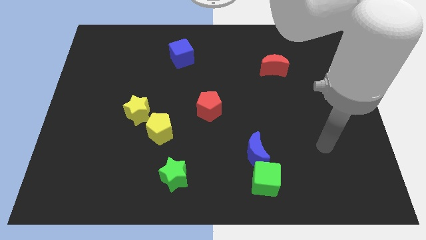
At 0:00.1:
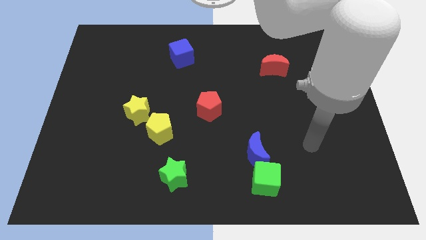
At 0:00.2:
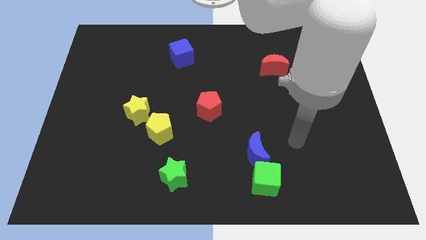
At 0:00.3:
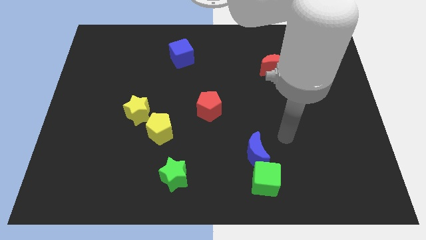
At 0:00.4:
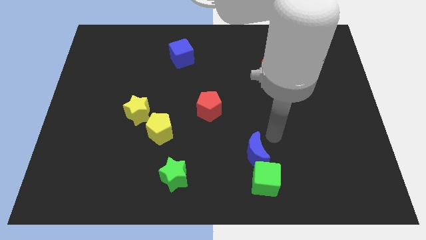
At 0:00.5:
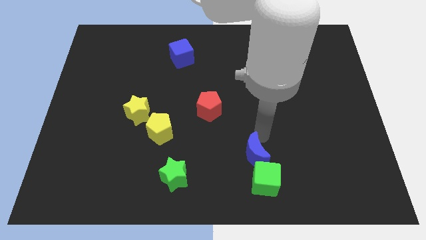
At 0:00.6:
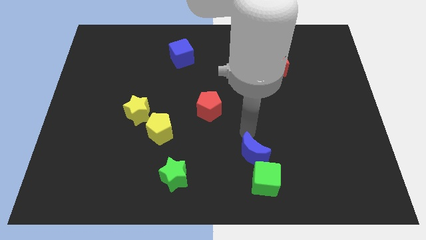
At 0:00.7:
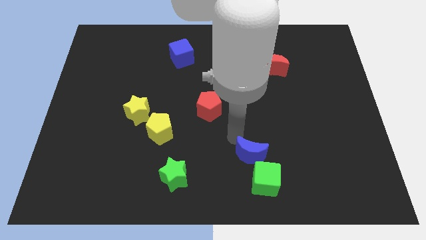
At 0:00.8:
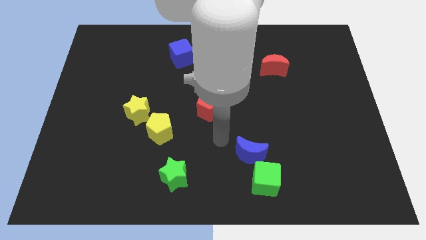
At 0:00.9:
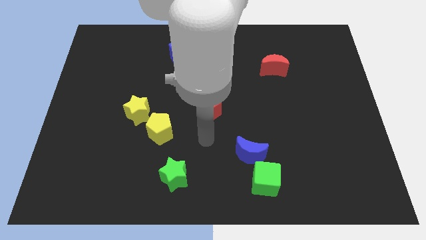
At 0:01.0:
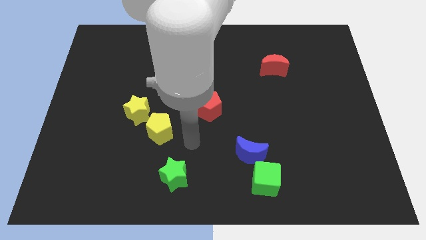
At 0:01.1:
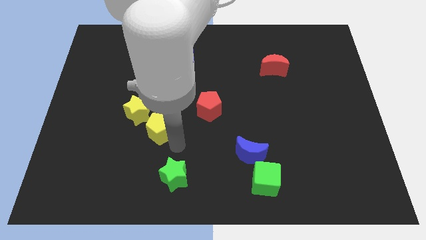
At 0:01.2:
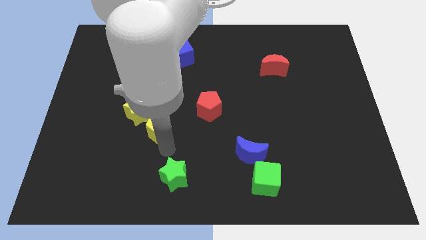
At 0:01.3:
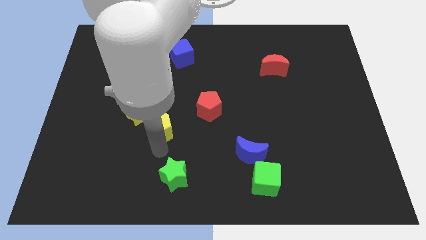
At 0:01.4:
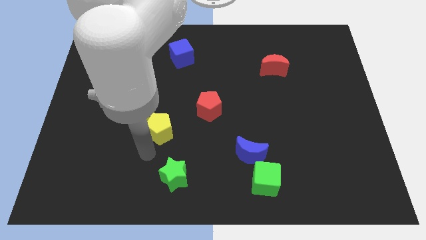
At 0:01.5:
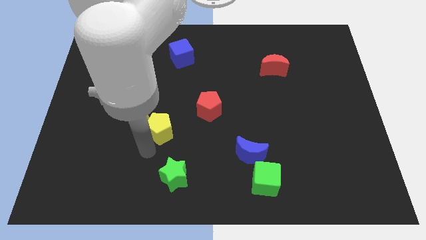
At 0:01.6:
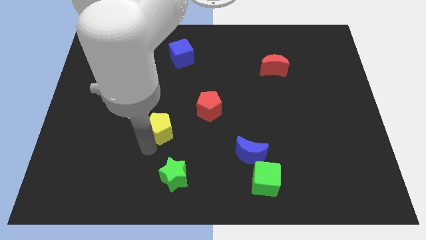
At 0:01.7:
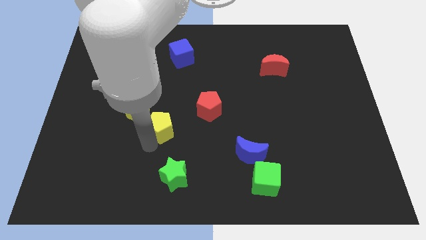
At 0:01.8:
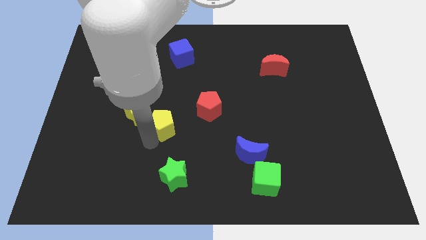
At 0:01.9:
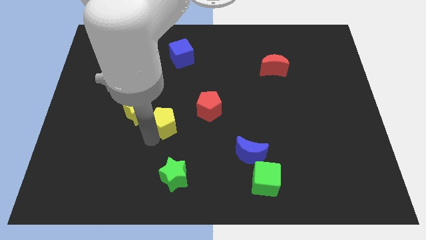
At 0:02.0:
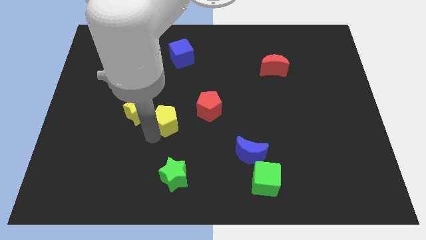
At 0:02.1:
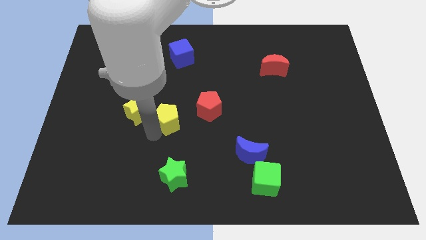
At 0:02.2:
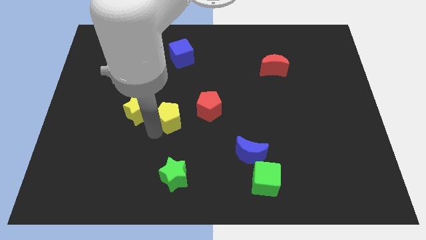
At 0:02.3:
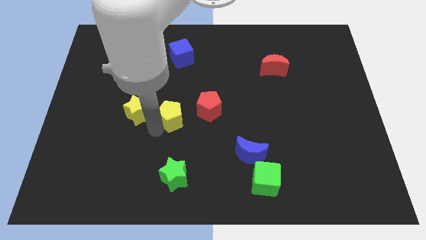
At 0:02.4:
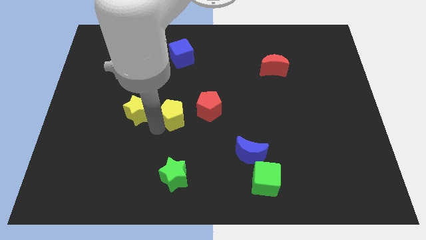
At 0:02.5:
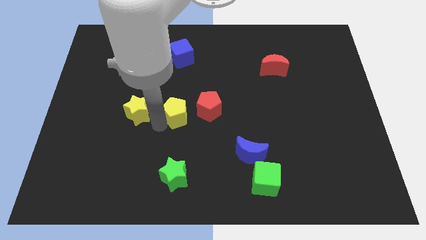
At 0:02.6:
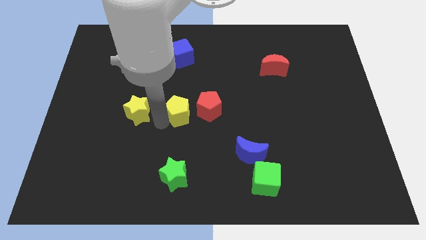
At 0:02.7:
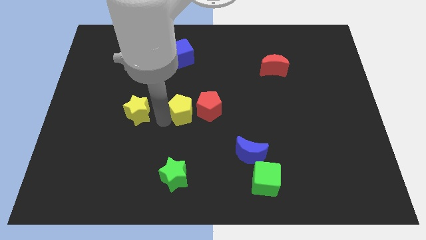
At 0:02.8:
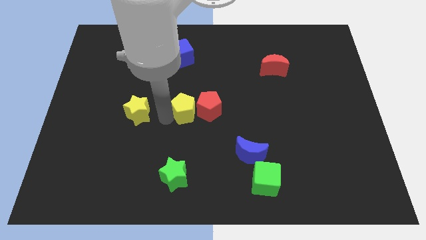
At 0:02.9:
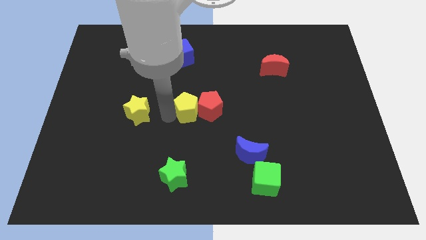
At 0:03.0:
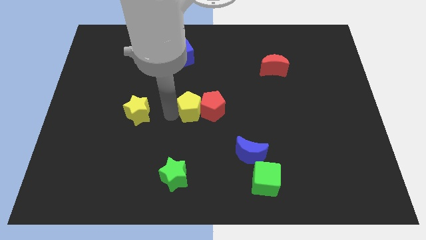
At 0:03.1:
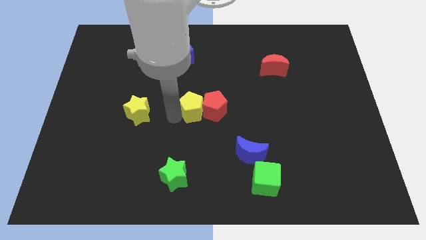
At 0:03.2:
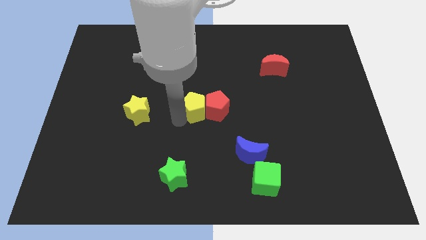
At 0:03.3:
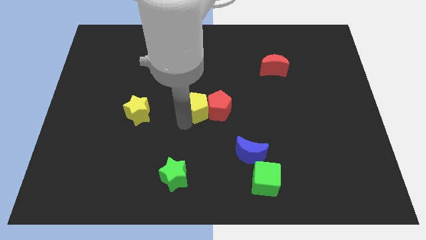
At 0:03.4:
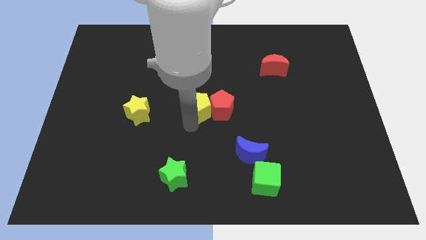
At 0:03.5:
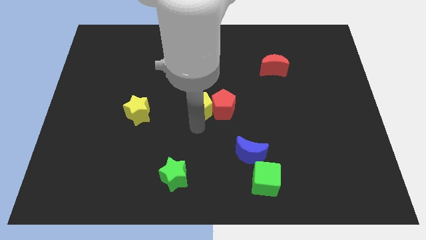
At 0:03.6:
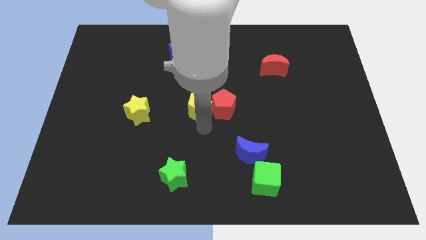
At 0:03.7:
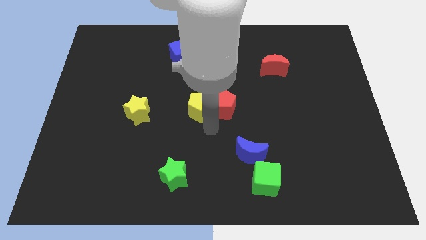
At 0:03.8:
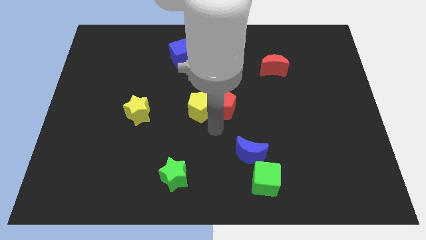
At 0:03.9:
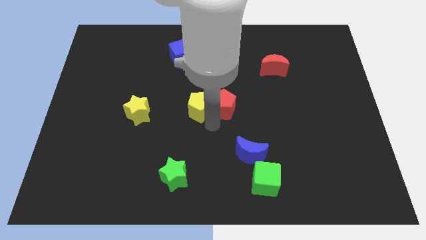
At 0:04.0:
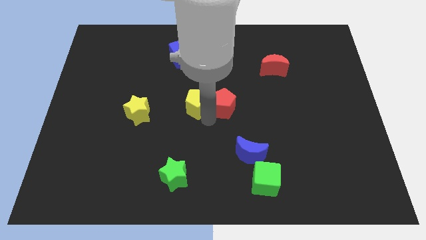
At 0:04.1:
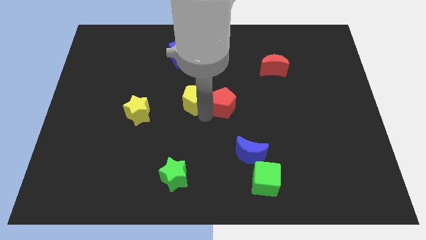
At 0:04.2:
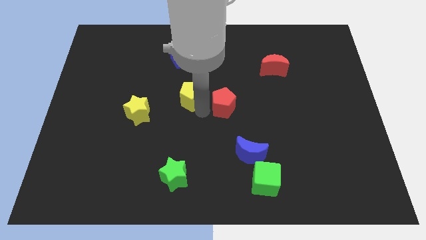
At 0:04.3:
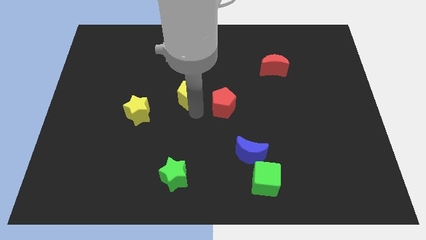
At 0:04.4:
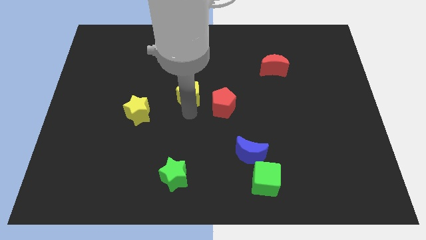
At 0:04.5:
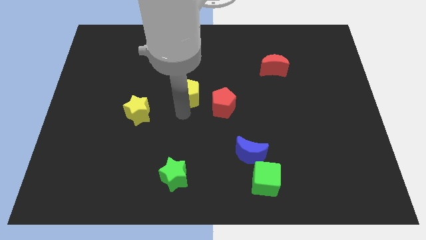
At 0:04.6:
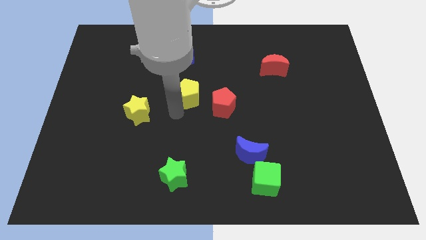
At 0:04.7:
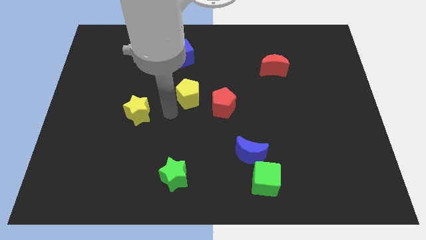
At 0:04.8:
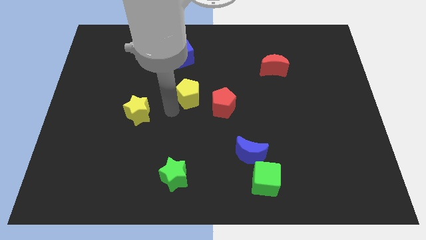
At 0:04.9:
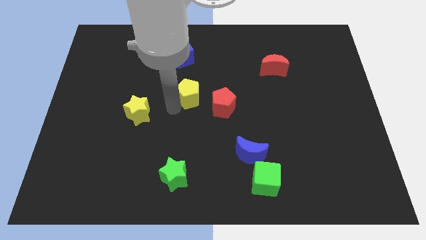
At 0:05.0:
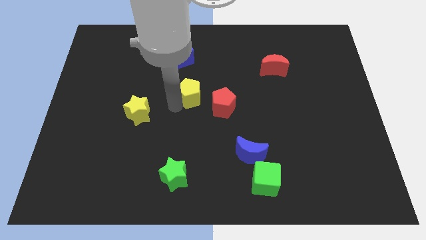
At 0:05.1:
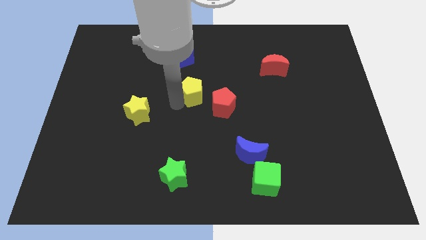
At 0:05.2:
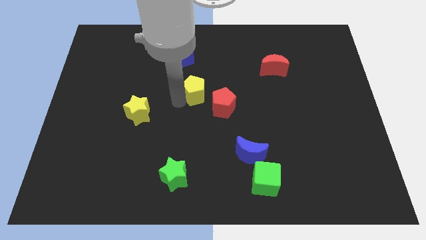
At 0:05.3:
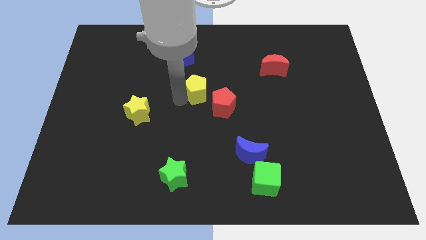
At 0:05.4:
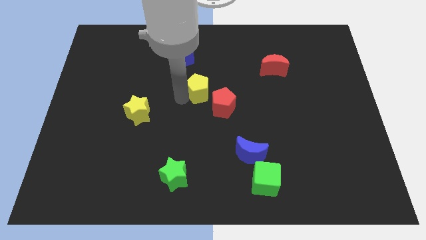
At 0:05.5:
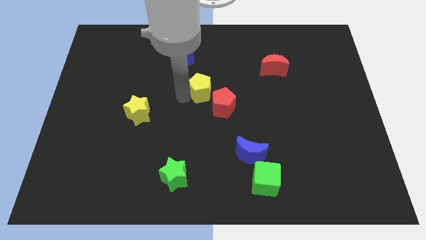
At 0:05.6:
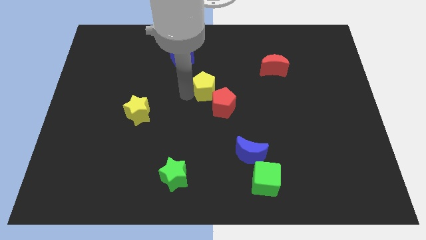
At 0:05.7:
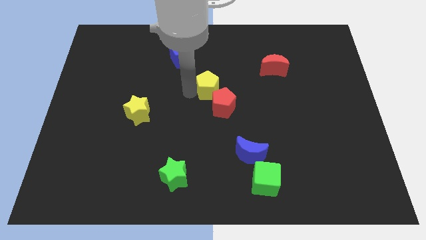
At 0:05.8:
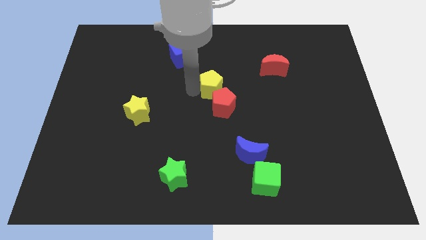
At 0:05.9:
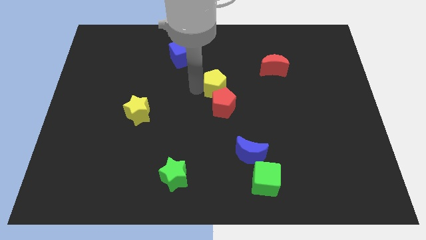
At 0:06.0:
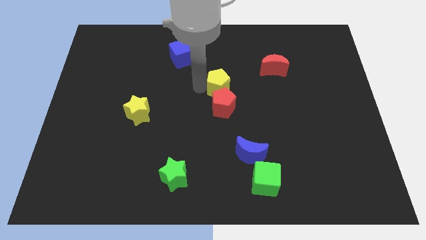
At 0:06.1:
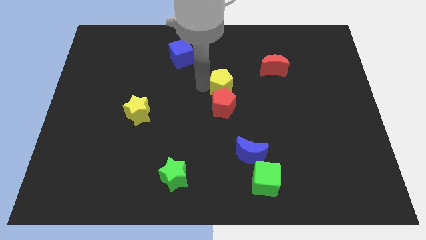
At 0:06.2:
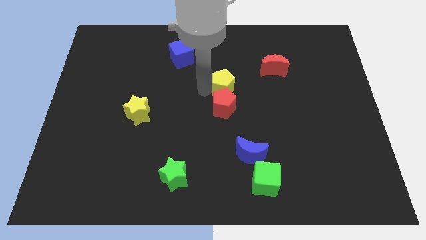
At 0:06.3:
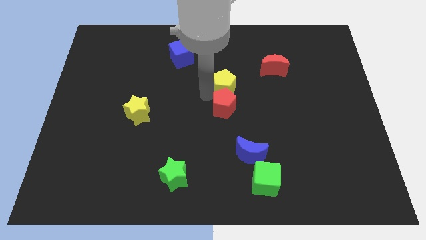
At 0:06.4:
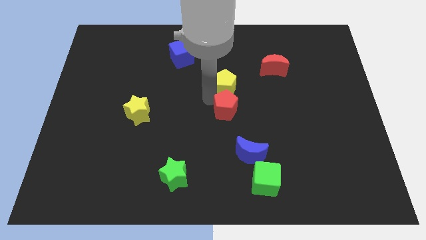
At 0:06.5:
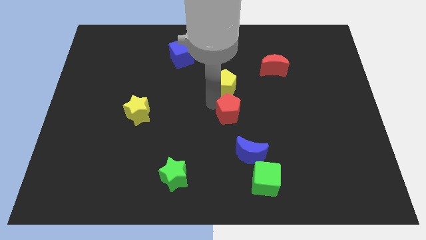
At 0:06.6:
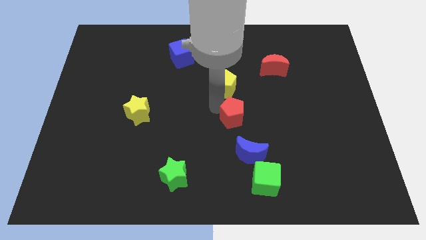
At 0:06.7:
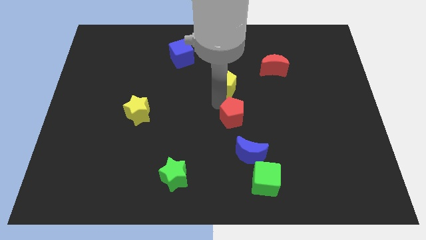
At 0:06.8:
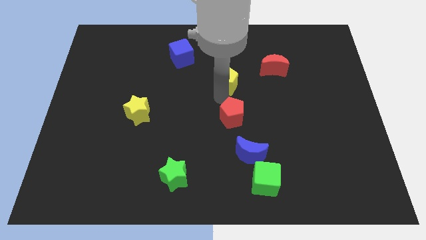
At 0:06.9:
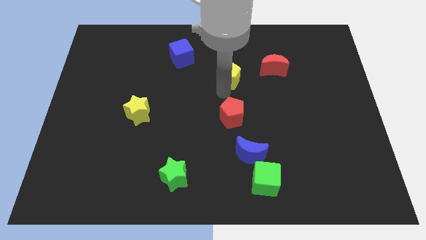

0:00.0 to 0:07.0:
move the yellow pentagon left of the red moon

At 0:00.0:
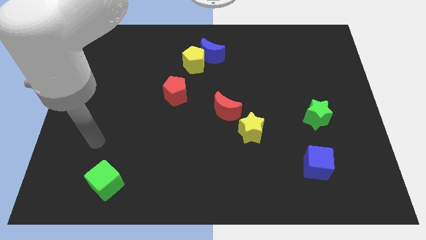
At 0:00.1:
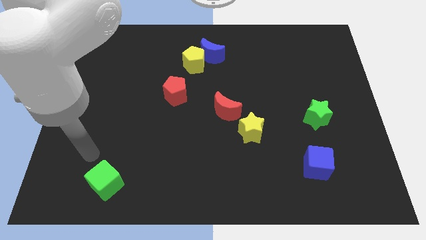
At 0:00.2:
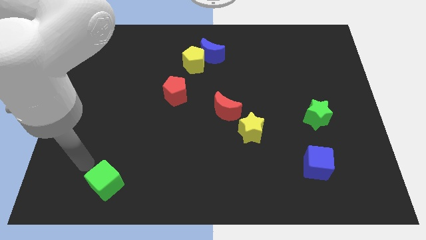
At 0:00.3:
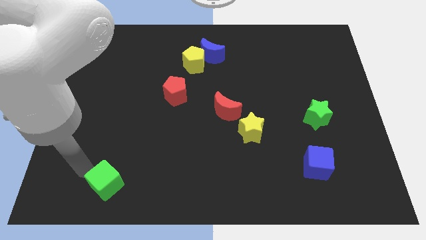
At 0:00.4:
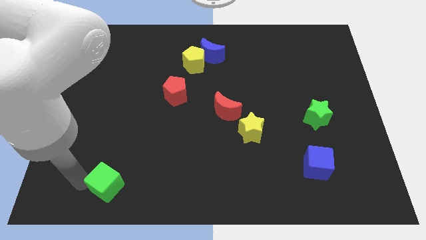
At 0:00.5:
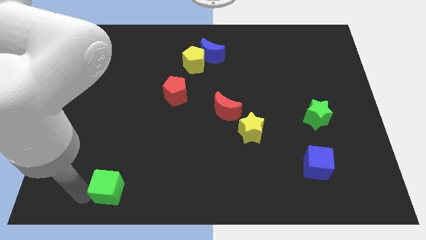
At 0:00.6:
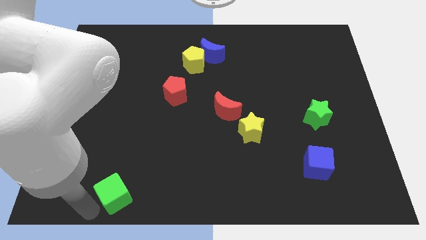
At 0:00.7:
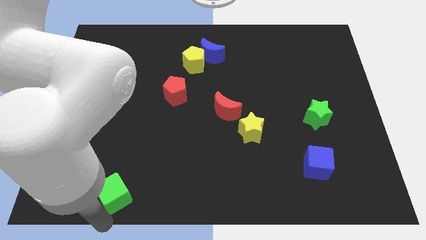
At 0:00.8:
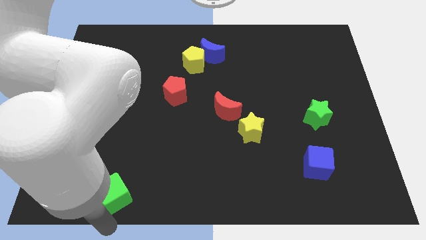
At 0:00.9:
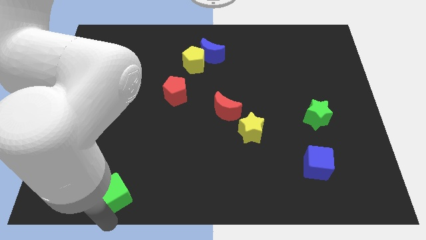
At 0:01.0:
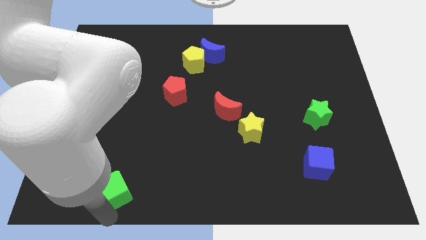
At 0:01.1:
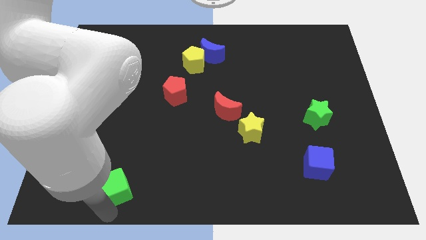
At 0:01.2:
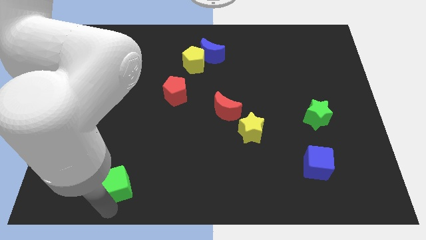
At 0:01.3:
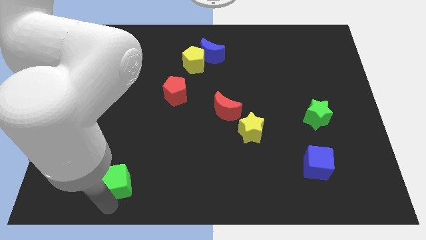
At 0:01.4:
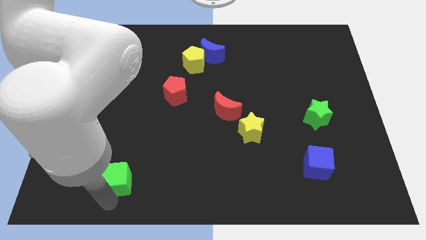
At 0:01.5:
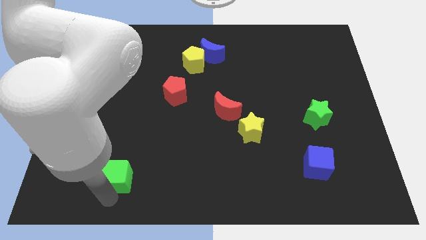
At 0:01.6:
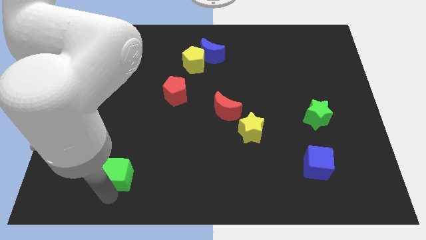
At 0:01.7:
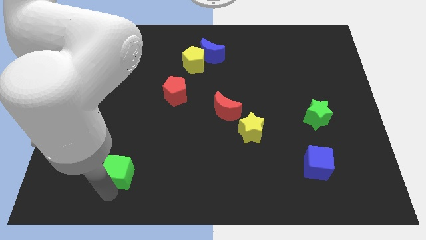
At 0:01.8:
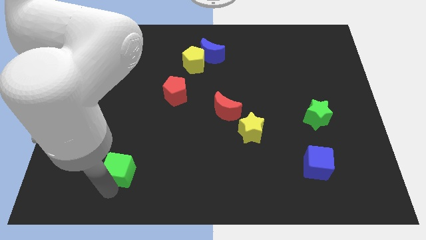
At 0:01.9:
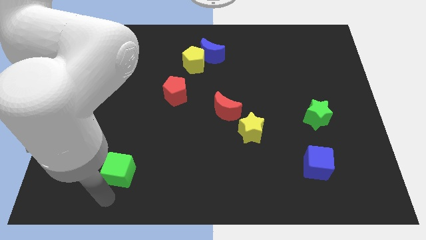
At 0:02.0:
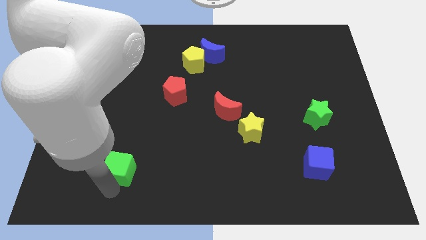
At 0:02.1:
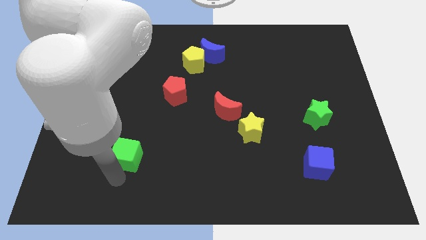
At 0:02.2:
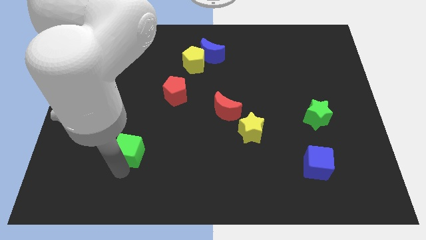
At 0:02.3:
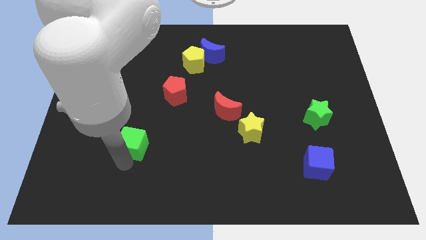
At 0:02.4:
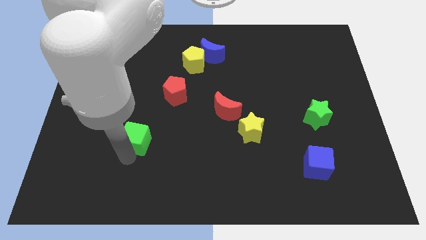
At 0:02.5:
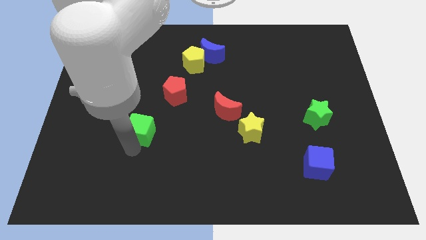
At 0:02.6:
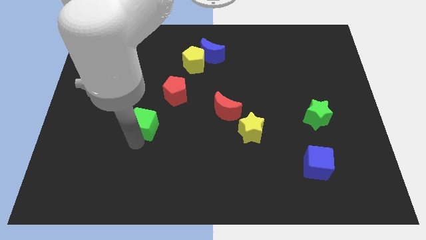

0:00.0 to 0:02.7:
put the green cube diagonally down and to the left of the red pentagon
